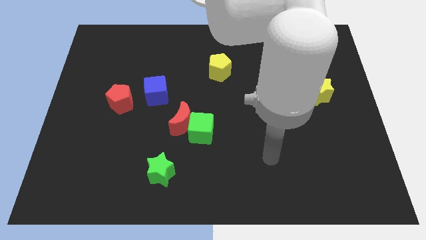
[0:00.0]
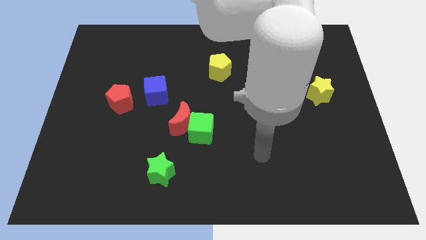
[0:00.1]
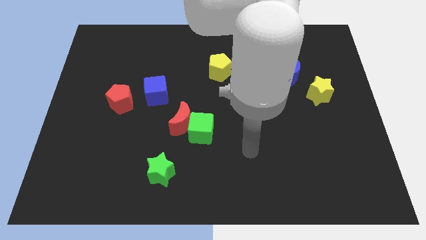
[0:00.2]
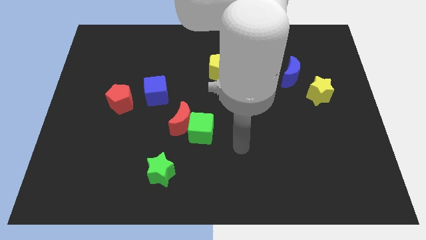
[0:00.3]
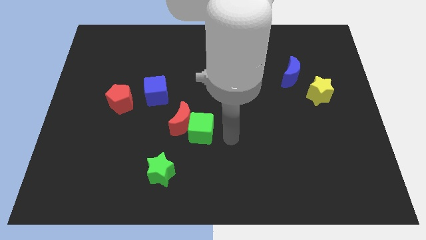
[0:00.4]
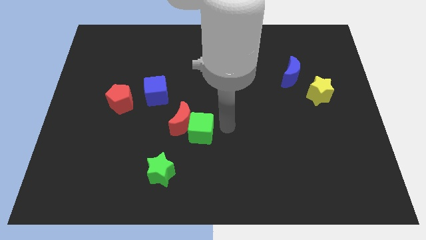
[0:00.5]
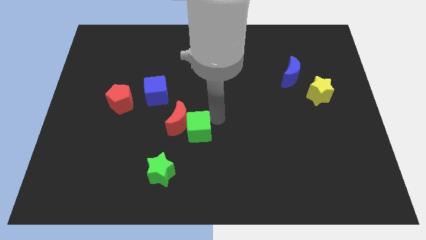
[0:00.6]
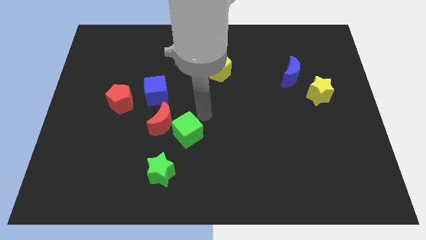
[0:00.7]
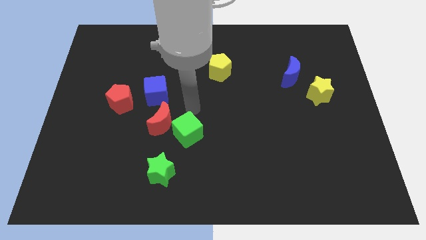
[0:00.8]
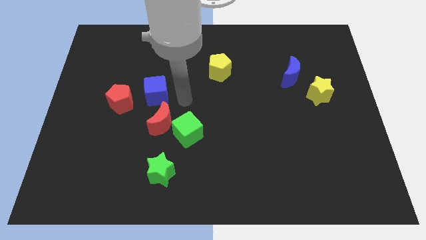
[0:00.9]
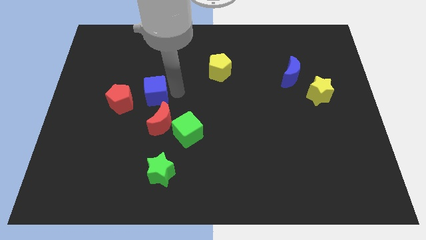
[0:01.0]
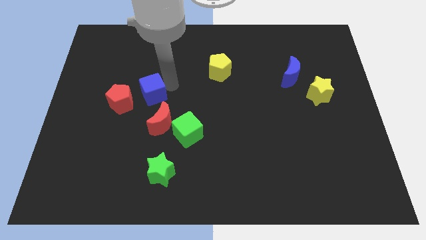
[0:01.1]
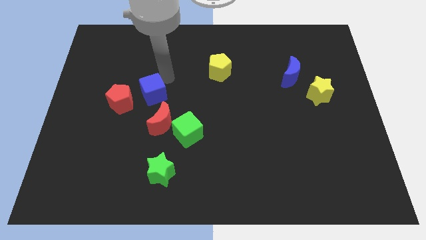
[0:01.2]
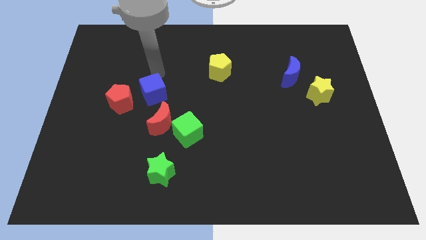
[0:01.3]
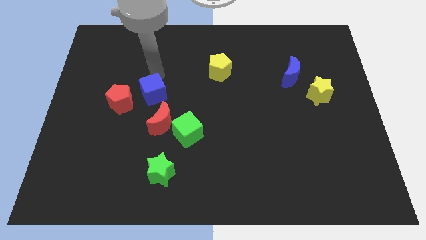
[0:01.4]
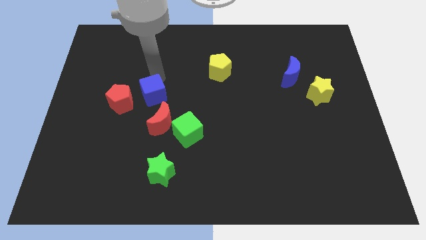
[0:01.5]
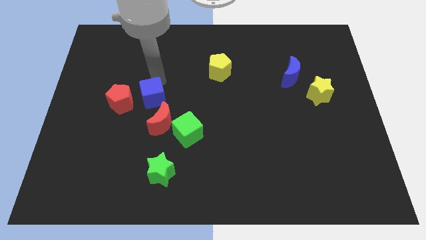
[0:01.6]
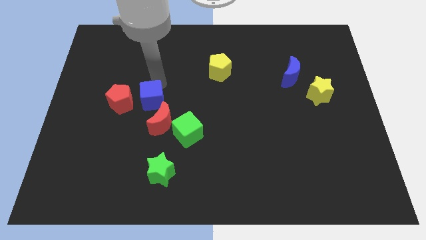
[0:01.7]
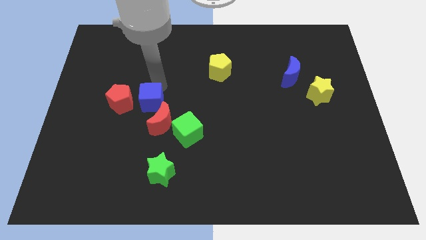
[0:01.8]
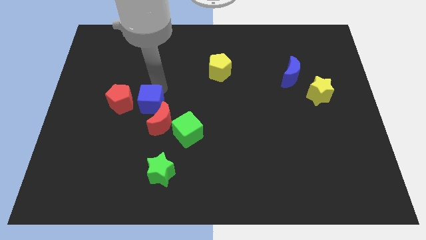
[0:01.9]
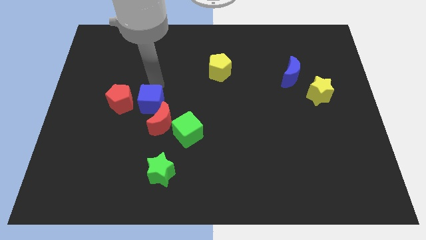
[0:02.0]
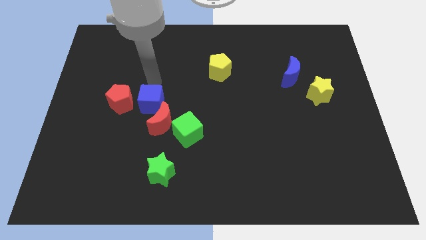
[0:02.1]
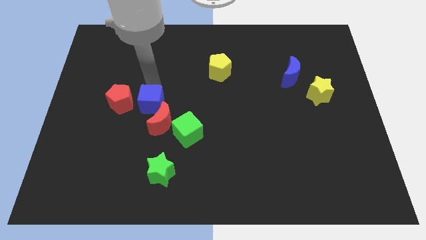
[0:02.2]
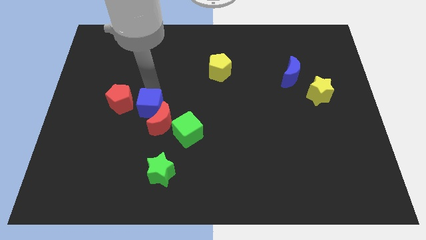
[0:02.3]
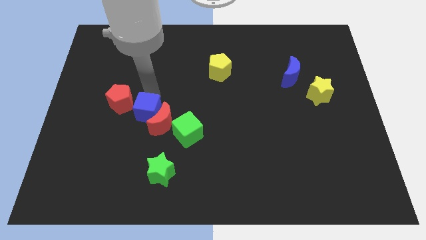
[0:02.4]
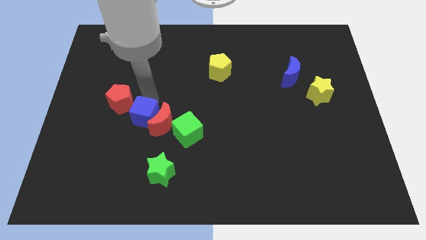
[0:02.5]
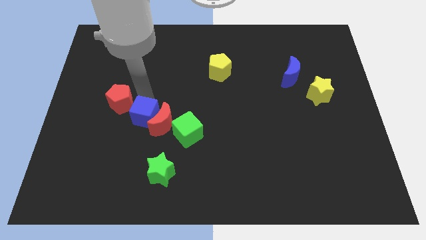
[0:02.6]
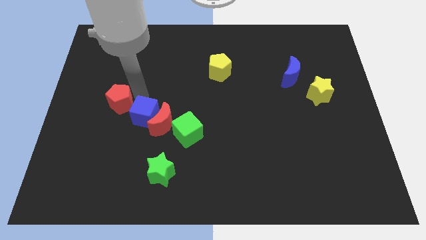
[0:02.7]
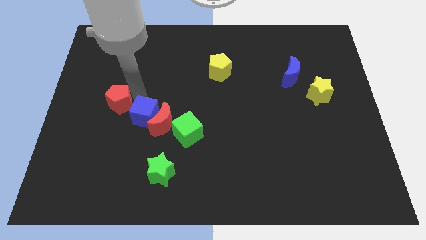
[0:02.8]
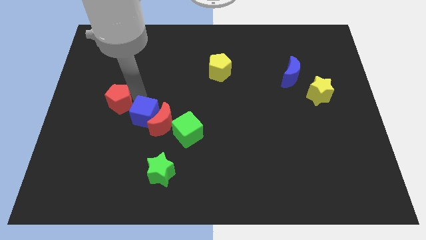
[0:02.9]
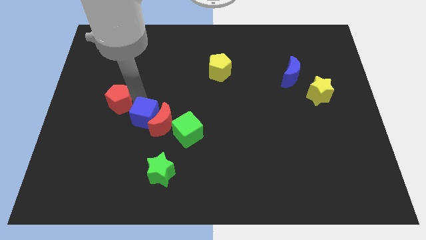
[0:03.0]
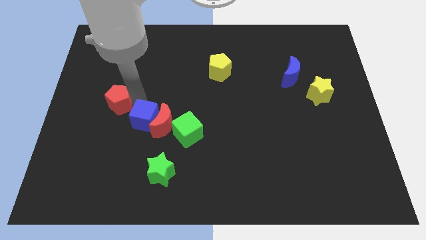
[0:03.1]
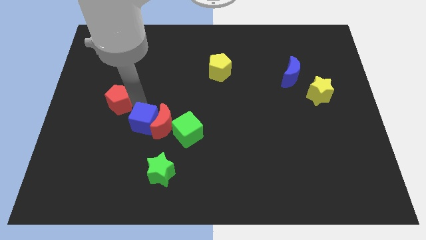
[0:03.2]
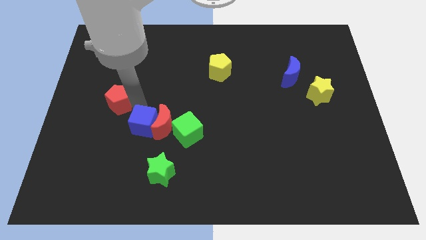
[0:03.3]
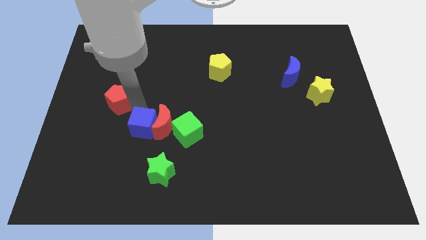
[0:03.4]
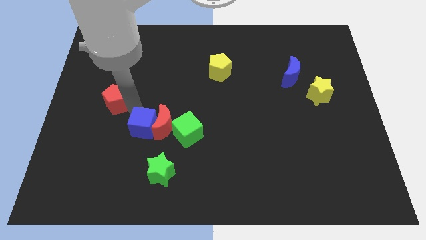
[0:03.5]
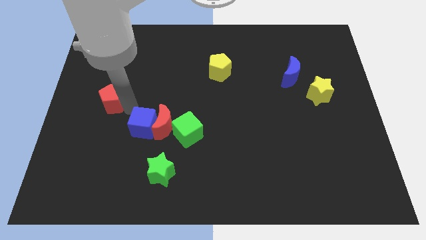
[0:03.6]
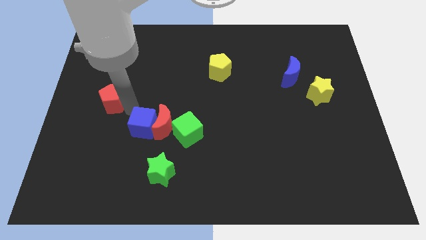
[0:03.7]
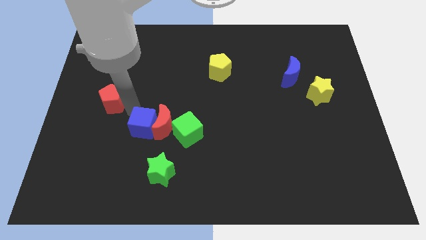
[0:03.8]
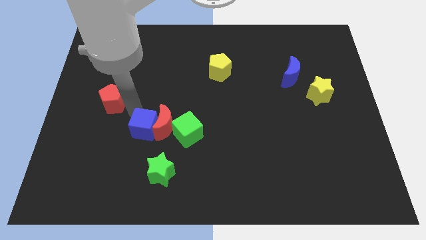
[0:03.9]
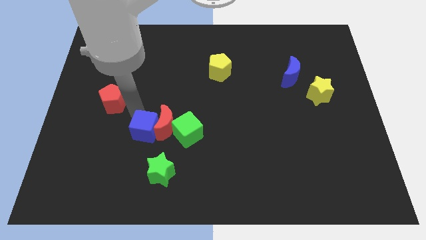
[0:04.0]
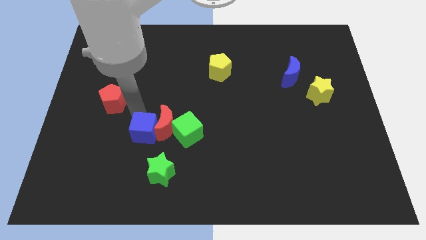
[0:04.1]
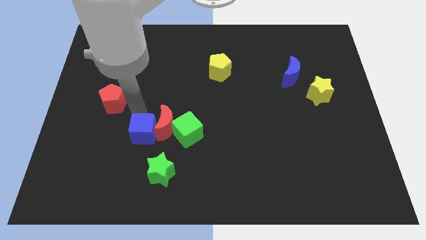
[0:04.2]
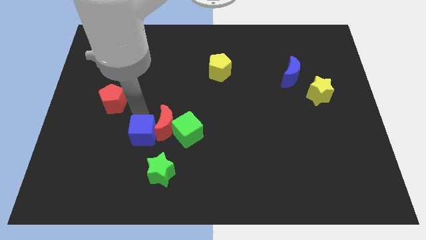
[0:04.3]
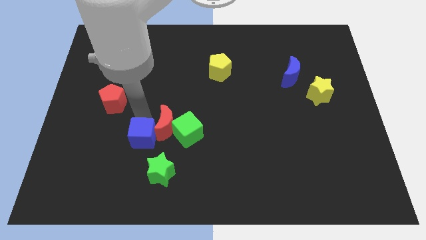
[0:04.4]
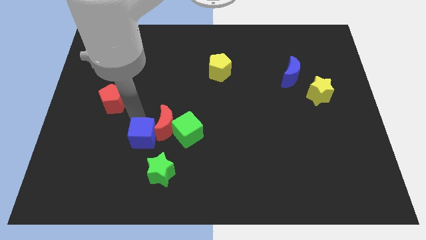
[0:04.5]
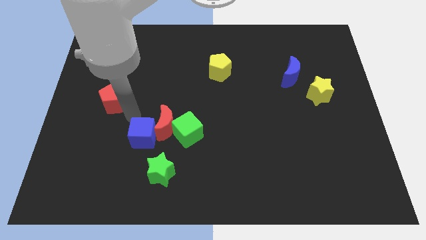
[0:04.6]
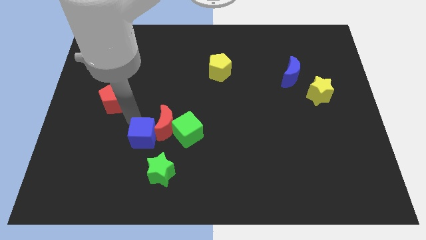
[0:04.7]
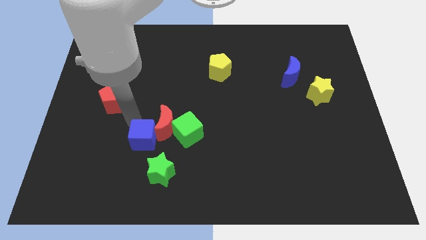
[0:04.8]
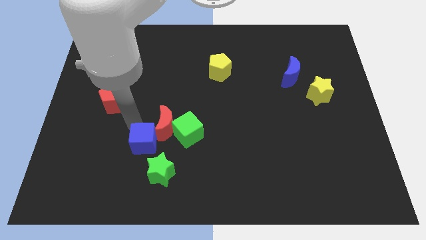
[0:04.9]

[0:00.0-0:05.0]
push the blue cube to the bottom of the red moon

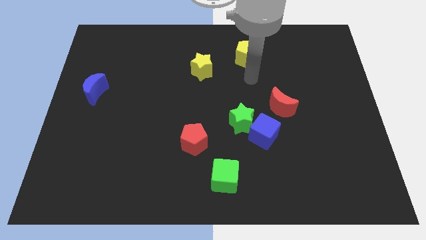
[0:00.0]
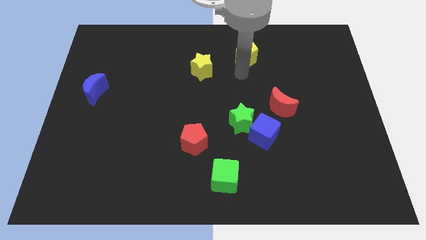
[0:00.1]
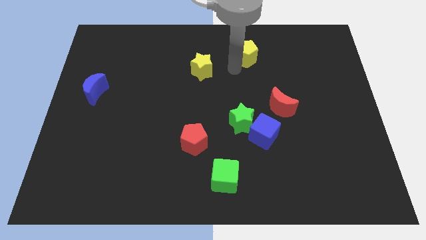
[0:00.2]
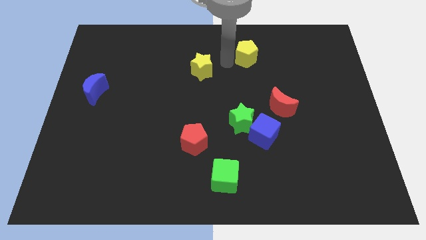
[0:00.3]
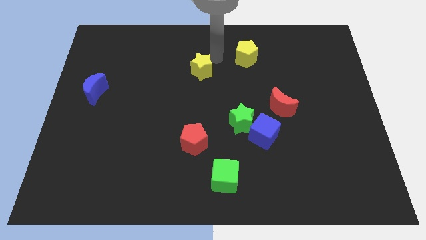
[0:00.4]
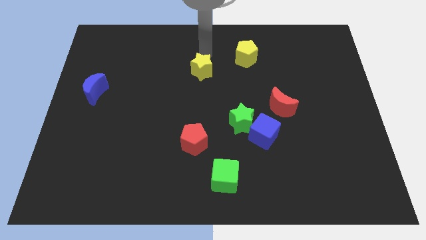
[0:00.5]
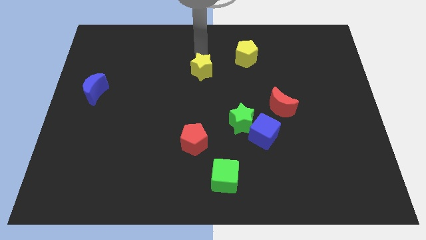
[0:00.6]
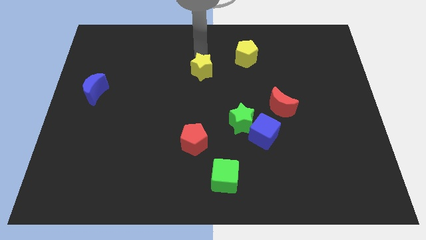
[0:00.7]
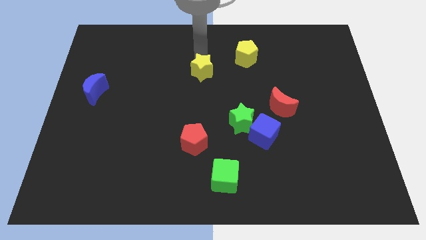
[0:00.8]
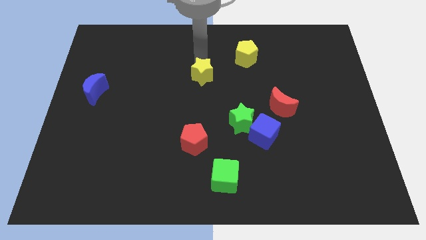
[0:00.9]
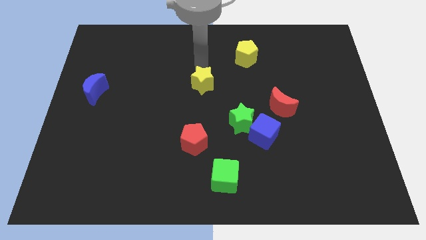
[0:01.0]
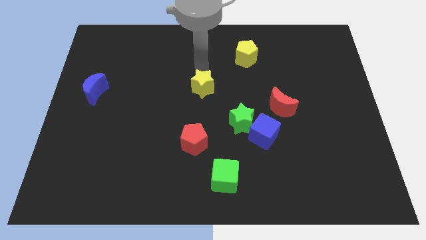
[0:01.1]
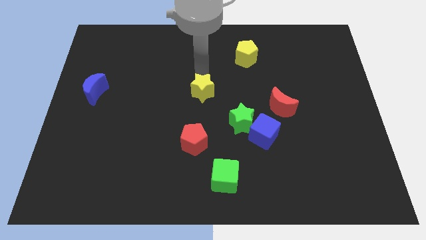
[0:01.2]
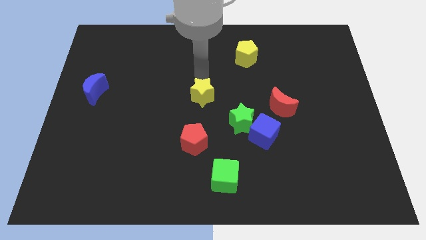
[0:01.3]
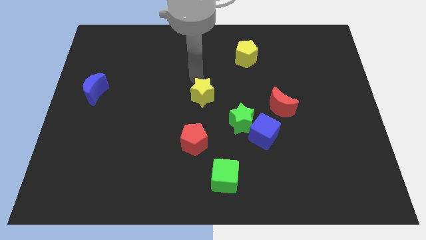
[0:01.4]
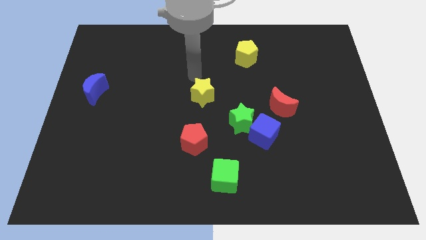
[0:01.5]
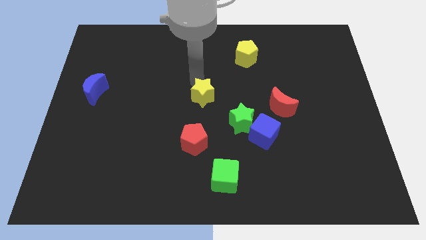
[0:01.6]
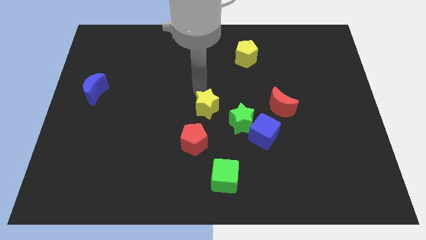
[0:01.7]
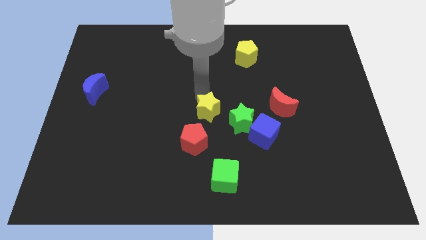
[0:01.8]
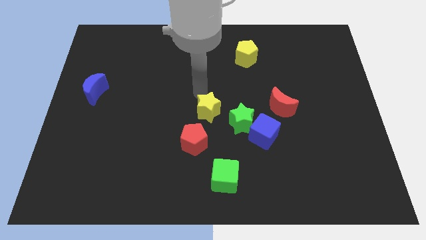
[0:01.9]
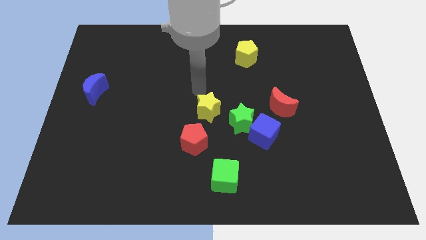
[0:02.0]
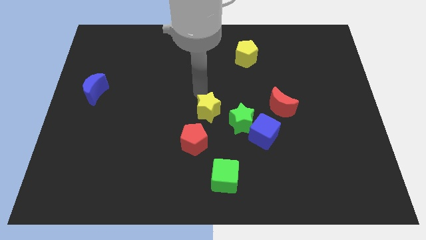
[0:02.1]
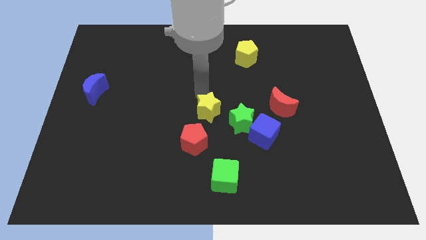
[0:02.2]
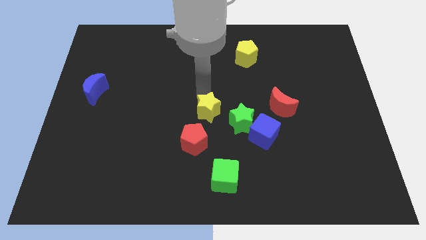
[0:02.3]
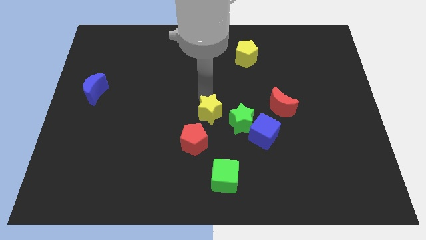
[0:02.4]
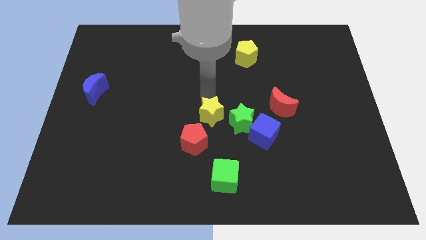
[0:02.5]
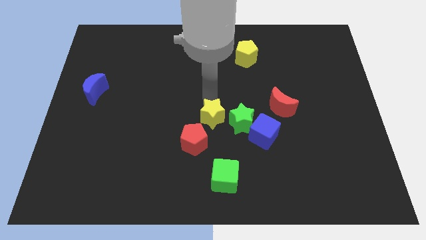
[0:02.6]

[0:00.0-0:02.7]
put the yellow star to the left of the blue cube
